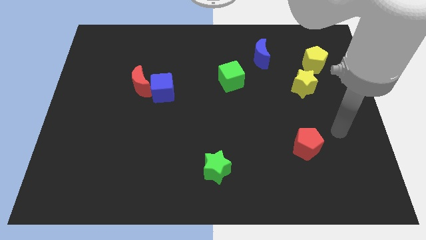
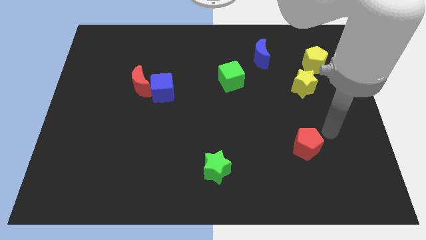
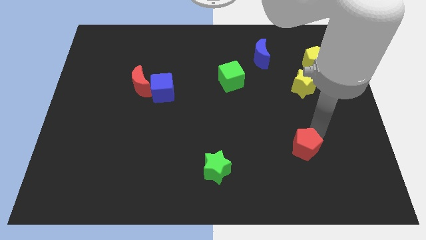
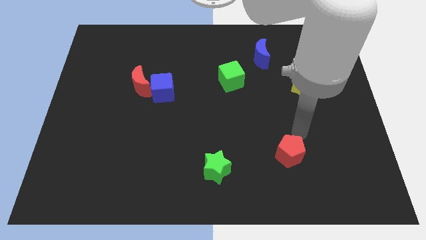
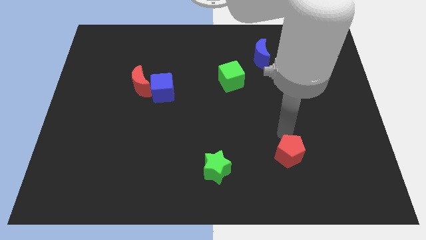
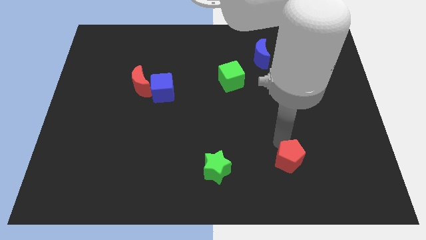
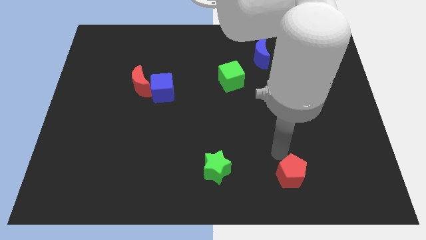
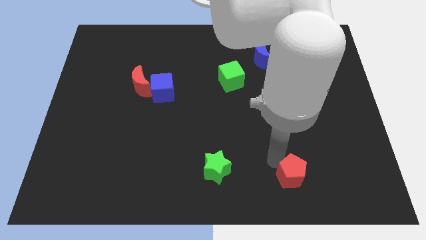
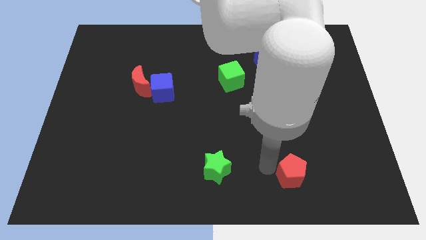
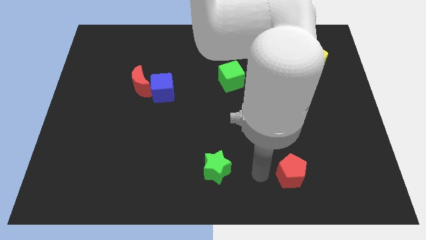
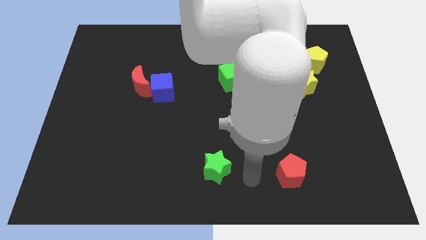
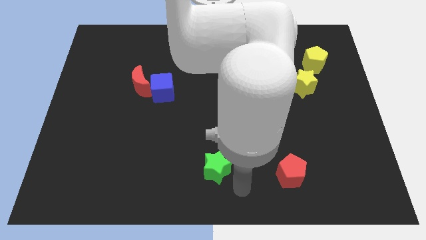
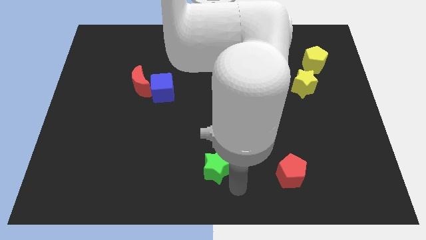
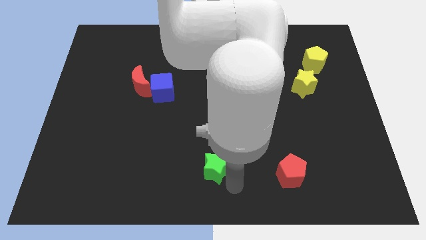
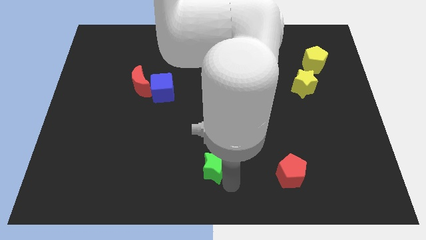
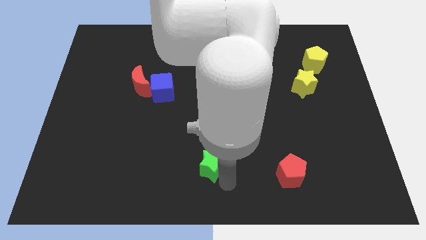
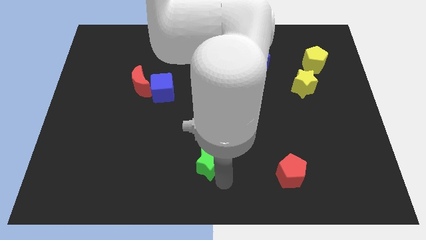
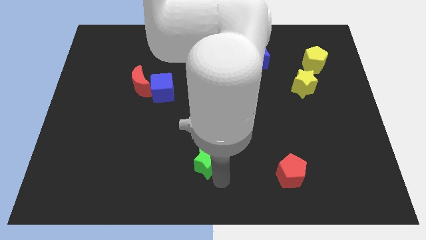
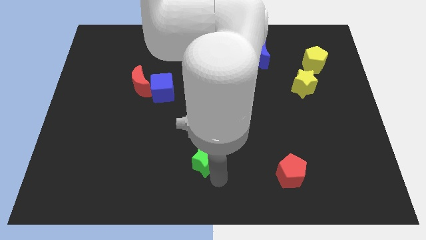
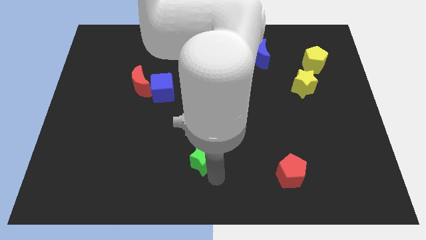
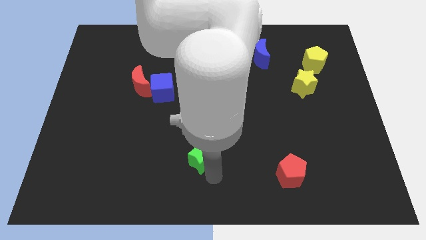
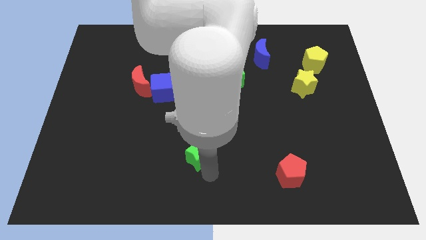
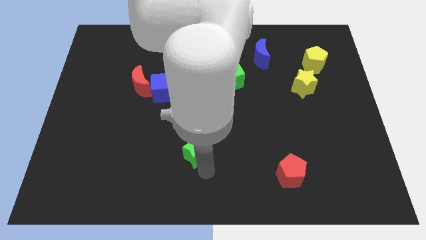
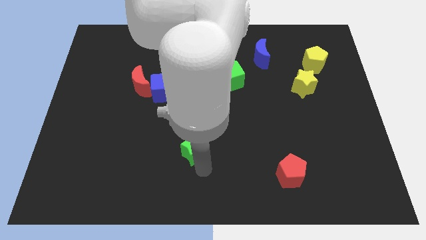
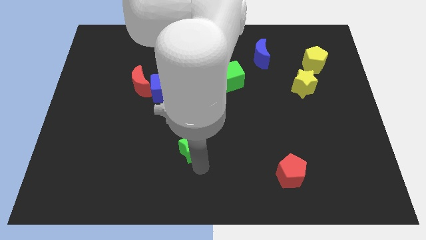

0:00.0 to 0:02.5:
slide the green star a little bit upwards and then left

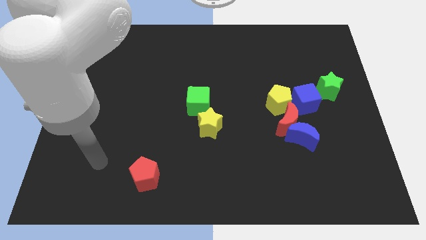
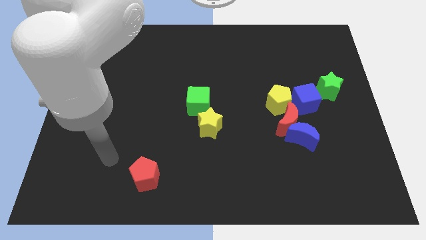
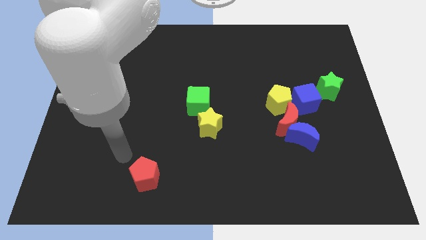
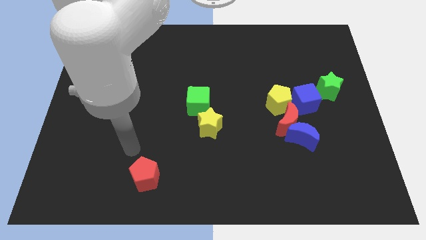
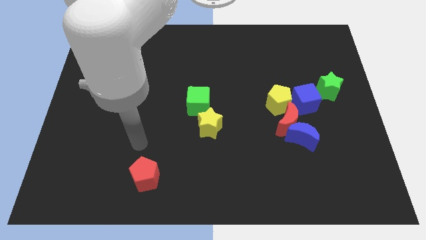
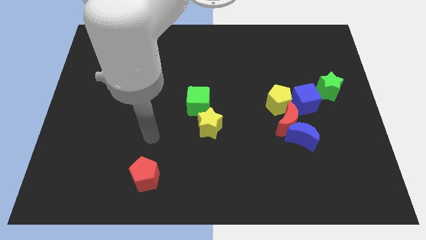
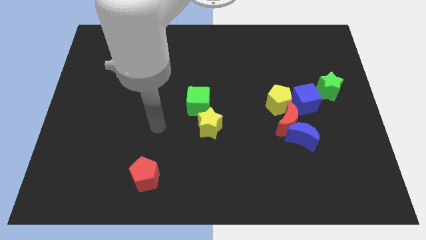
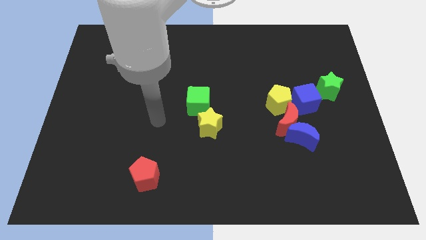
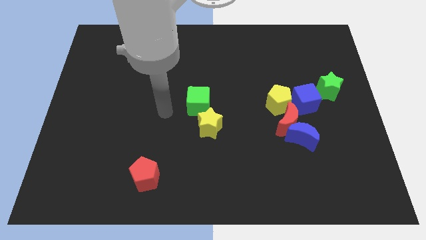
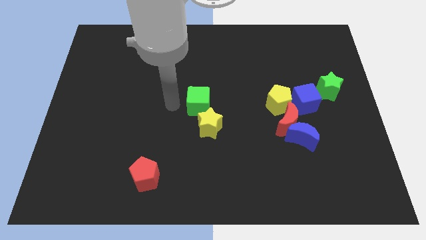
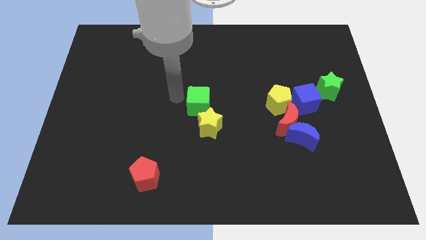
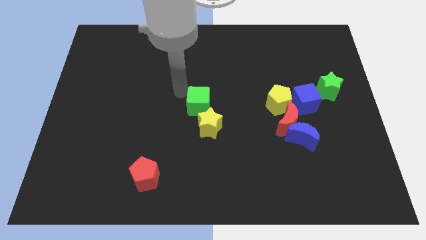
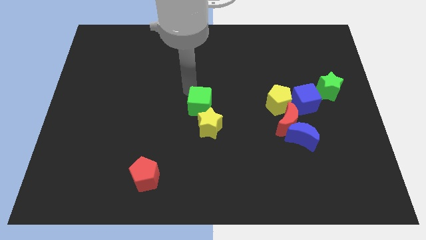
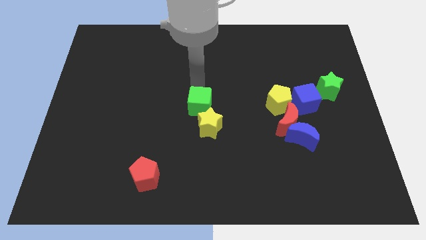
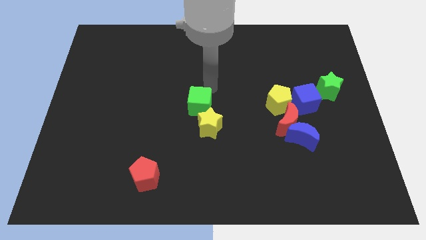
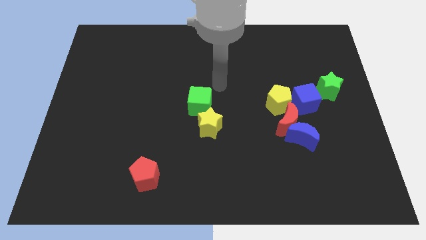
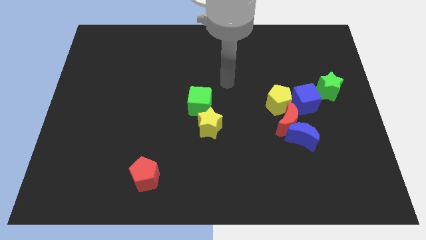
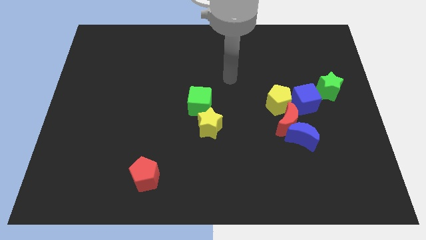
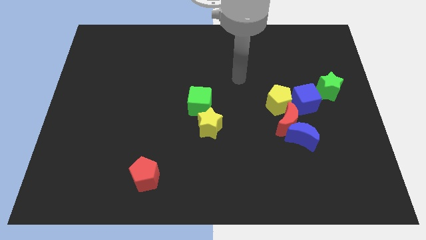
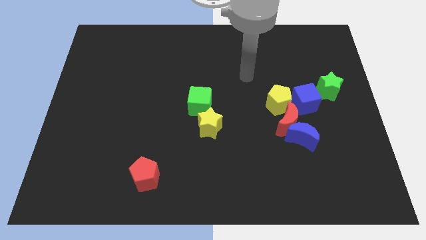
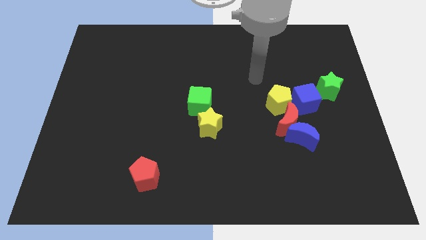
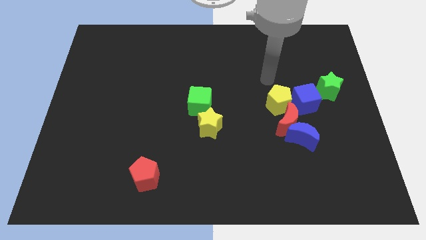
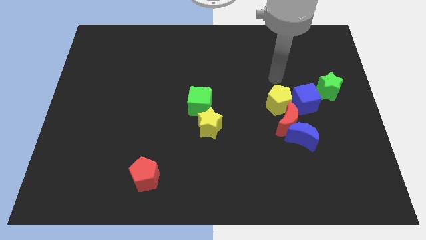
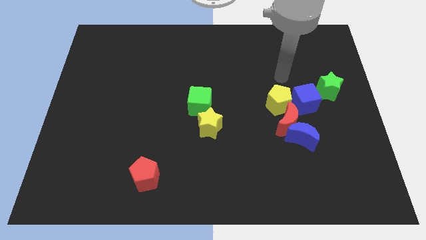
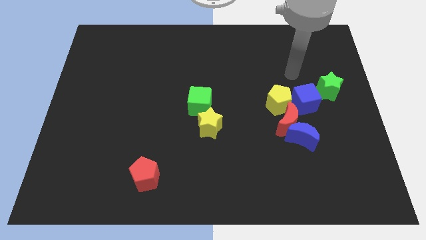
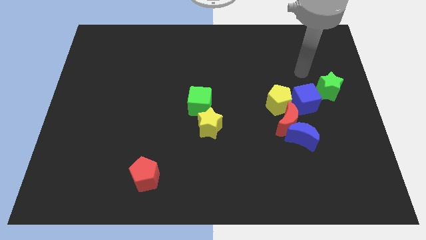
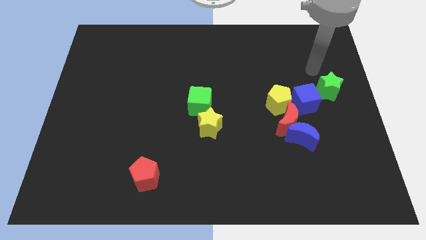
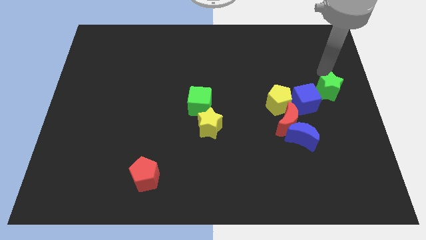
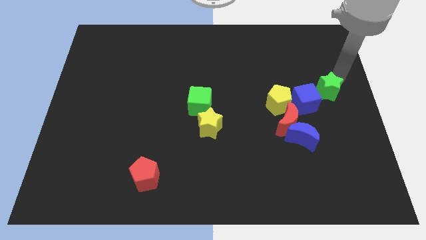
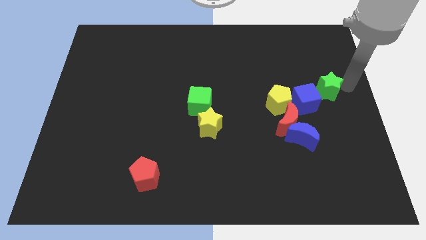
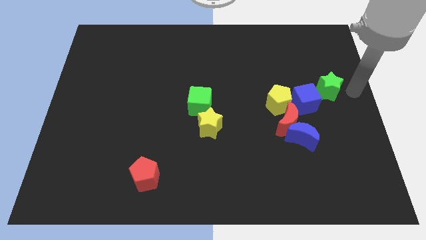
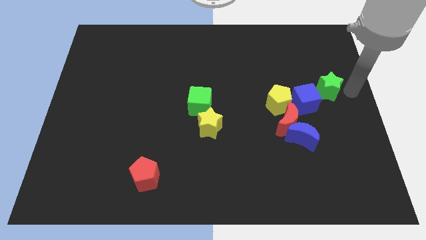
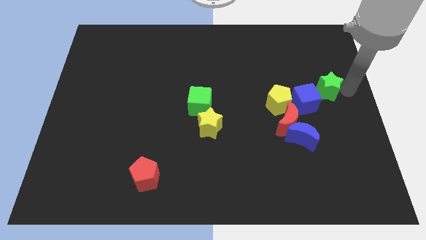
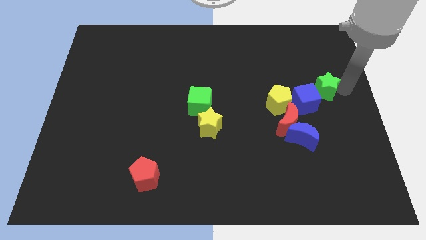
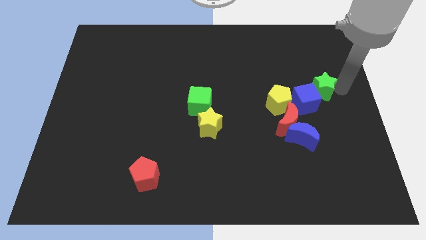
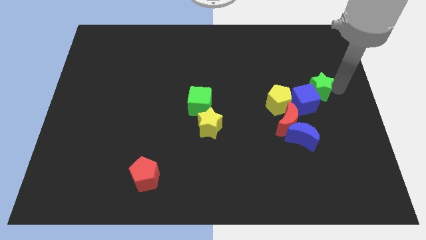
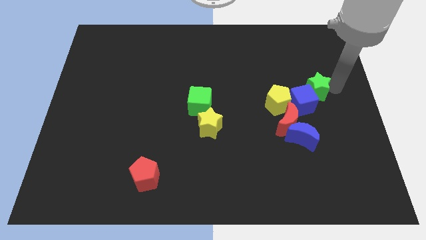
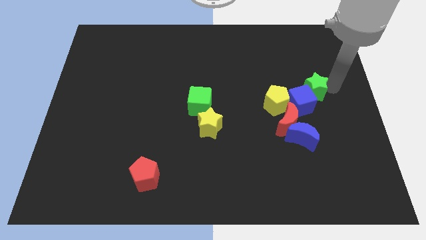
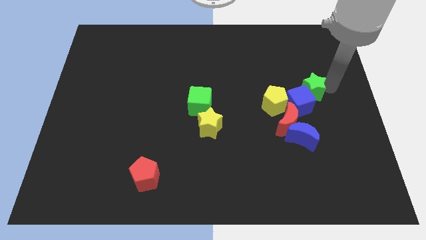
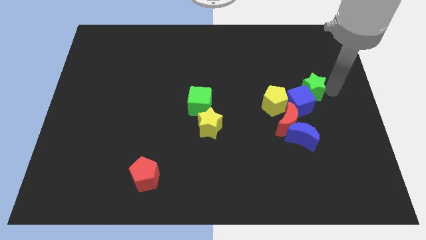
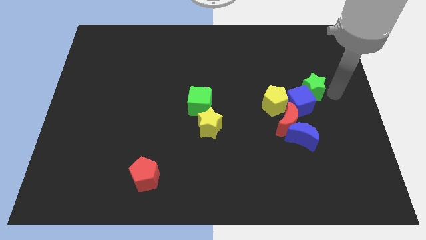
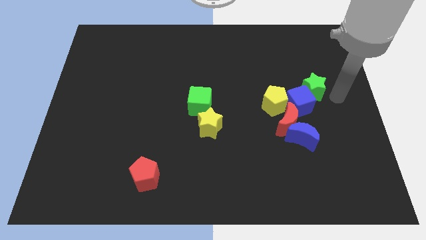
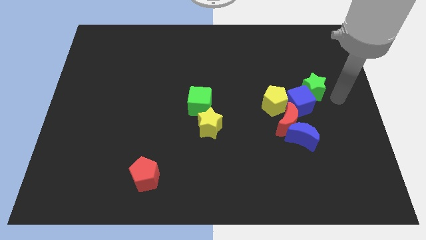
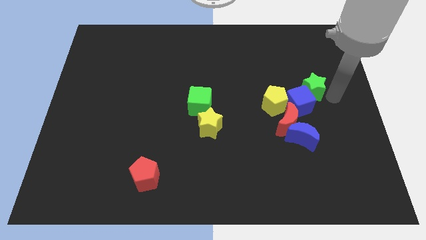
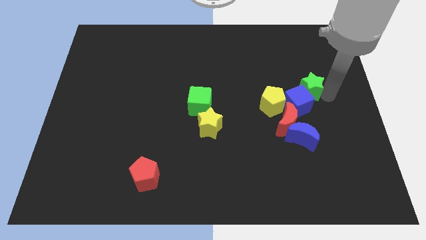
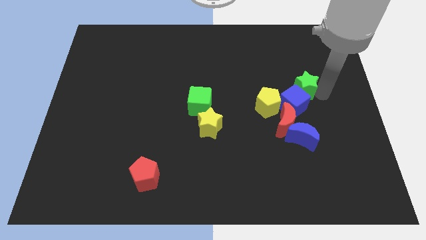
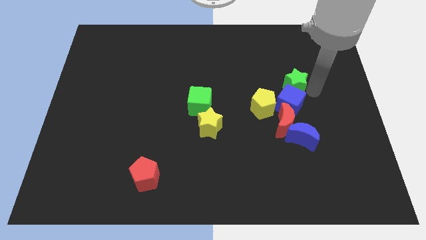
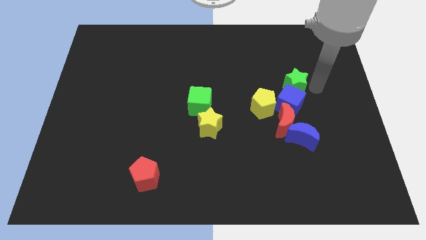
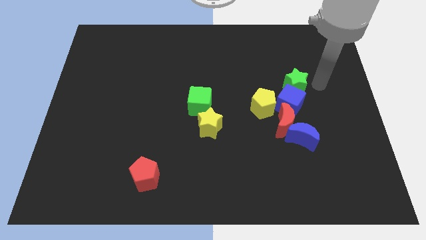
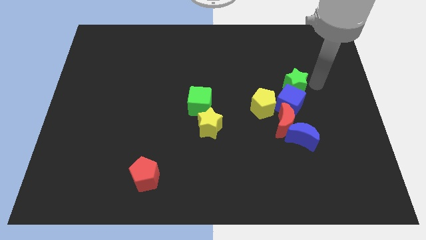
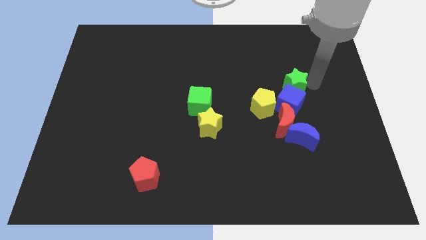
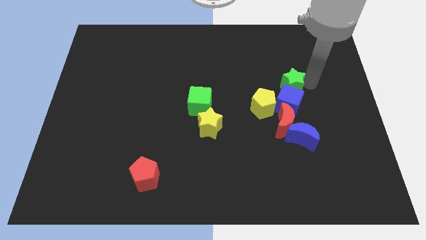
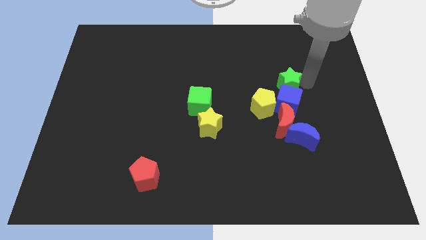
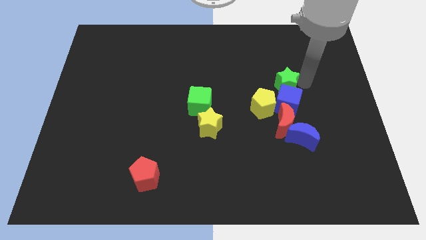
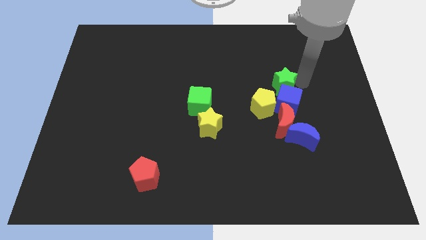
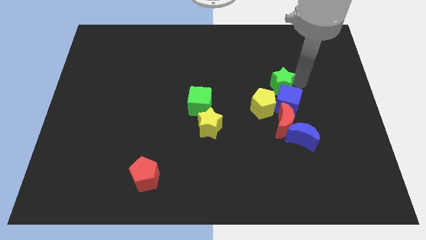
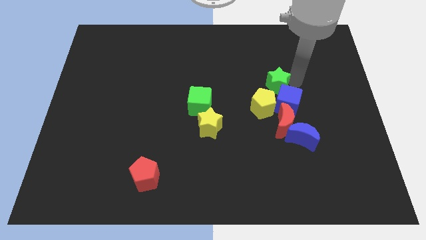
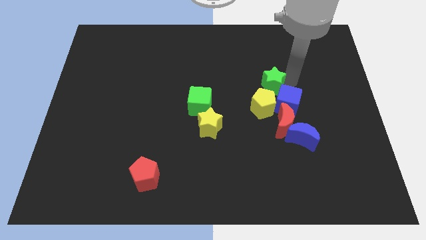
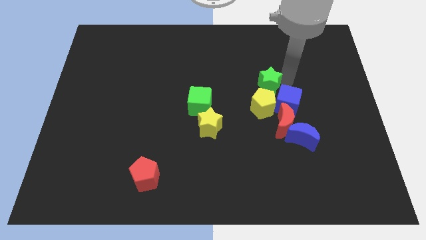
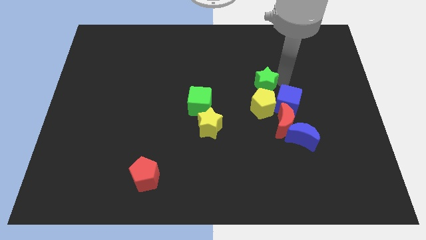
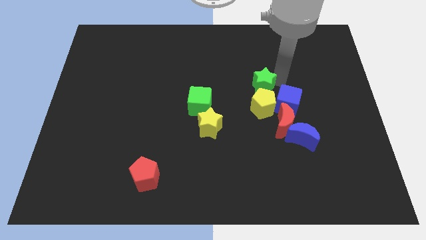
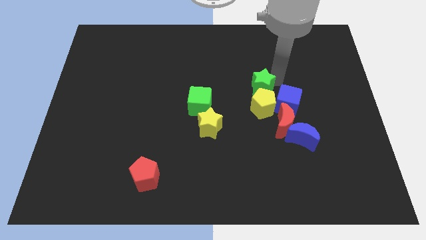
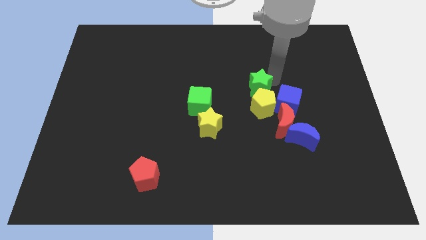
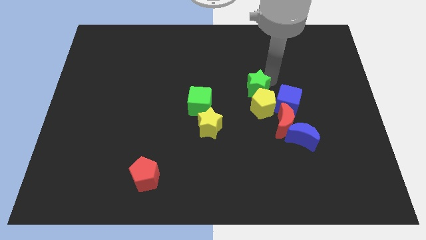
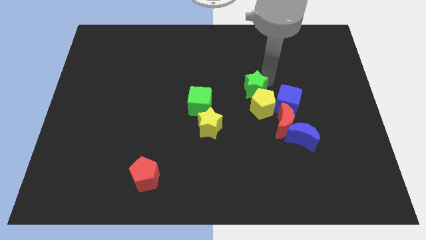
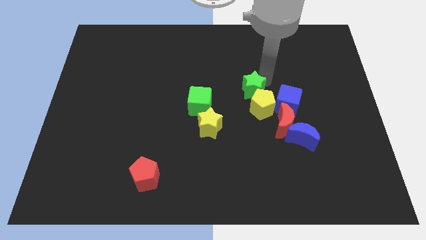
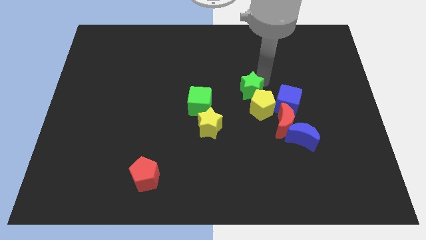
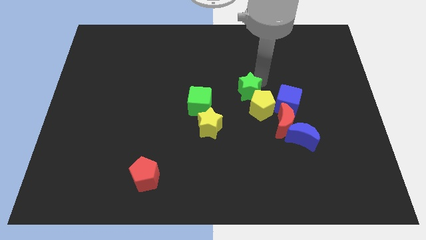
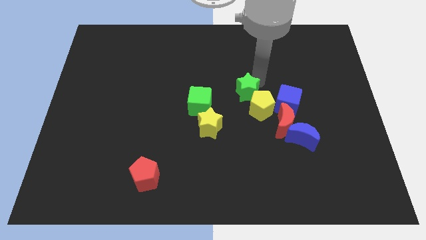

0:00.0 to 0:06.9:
move the green star to the left
